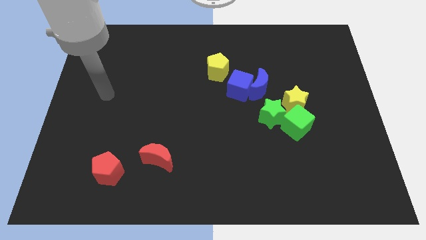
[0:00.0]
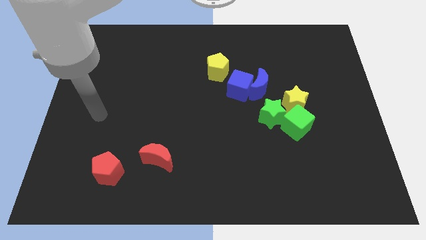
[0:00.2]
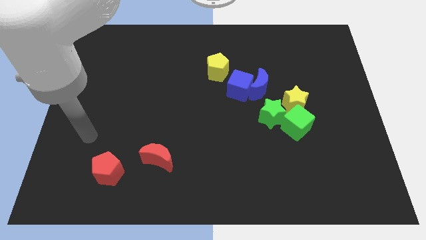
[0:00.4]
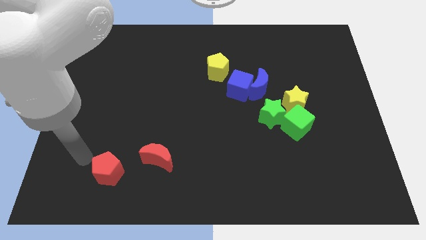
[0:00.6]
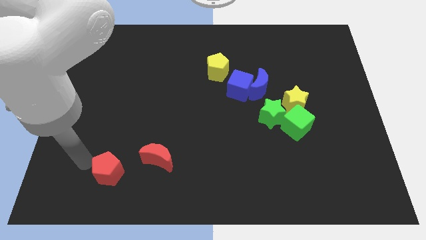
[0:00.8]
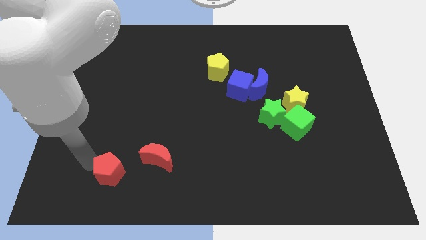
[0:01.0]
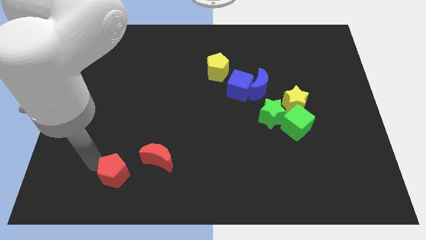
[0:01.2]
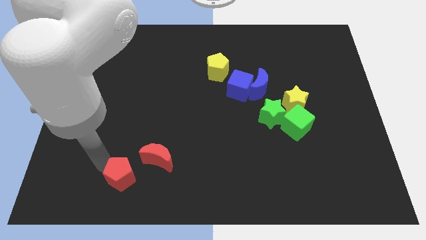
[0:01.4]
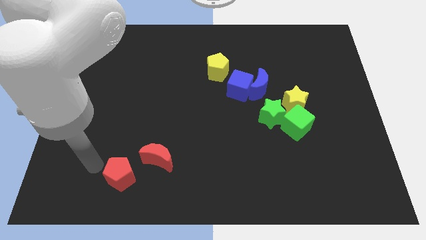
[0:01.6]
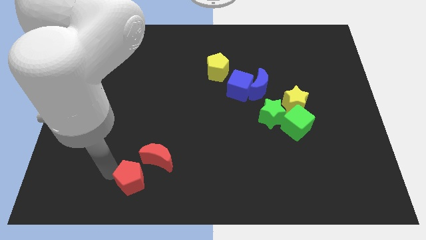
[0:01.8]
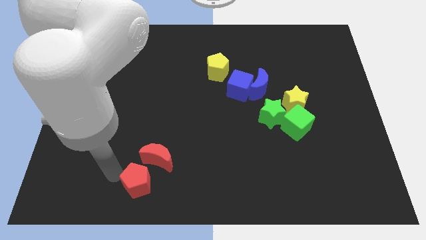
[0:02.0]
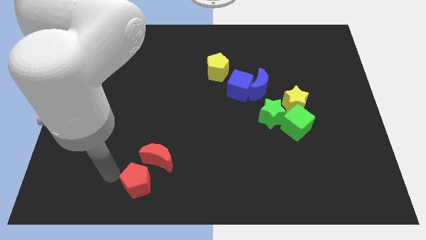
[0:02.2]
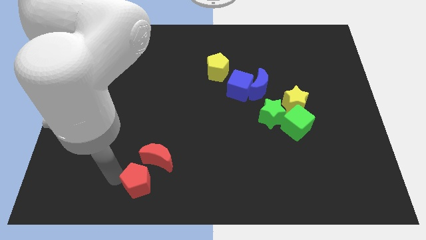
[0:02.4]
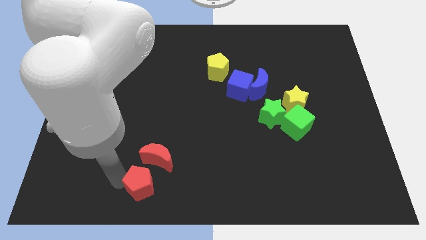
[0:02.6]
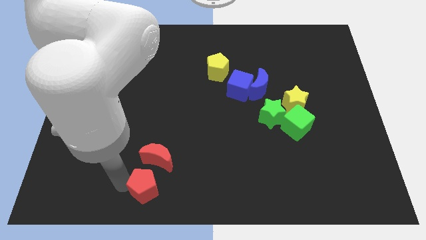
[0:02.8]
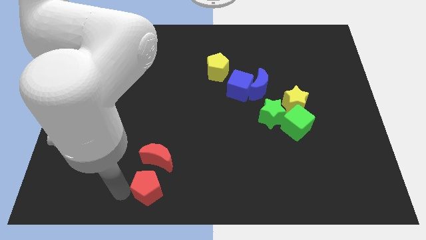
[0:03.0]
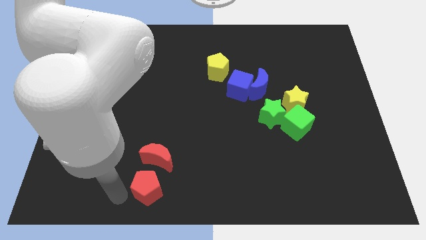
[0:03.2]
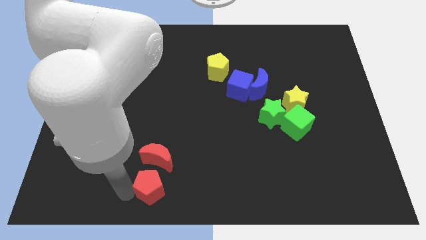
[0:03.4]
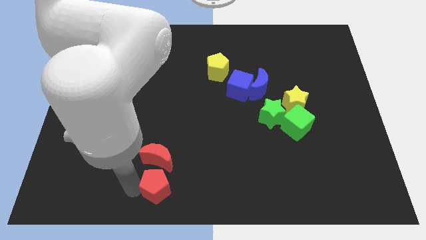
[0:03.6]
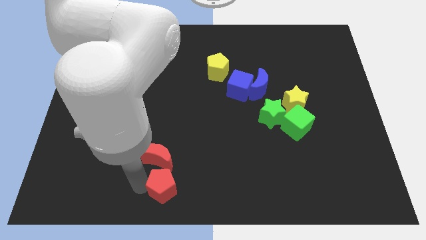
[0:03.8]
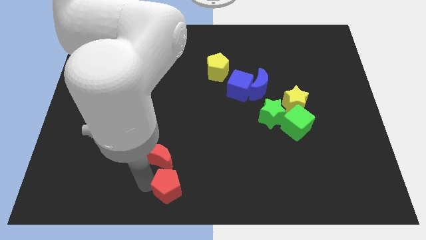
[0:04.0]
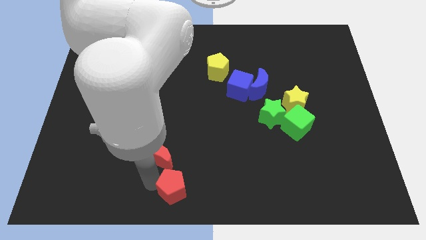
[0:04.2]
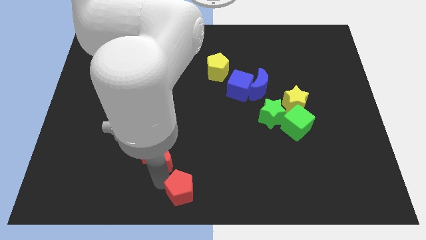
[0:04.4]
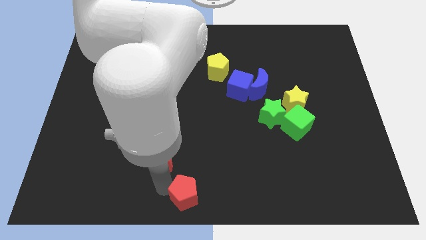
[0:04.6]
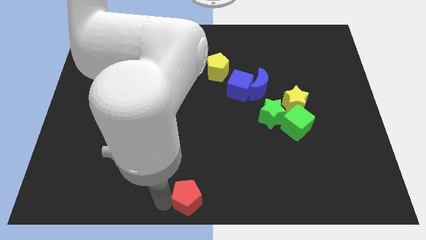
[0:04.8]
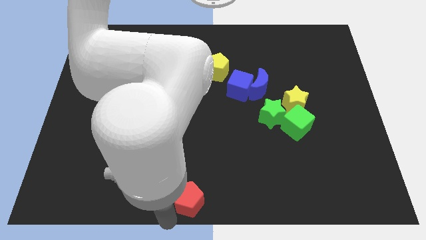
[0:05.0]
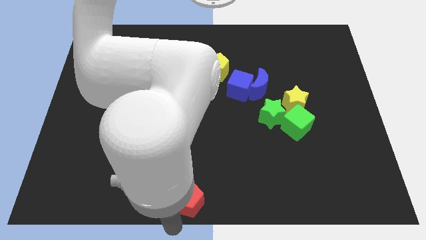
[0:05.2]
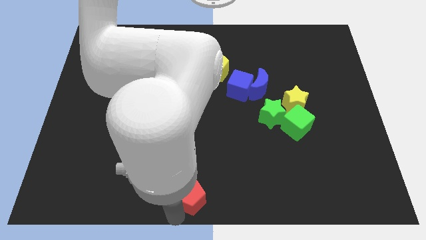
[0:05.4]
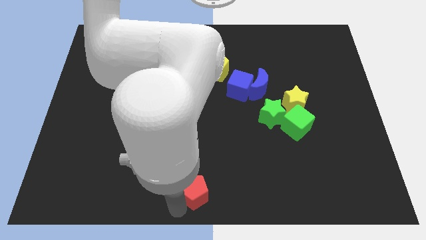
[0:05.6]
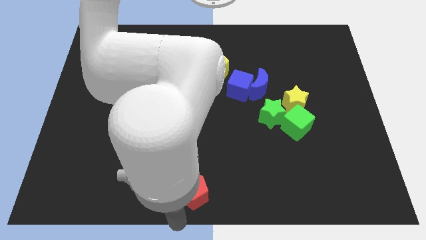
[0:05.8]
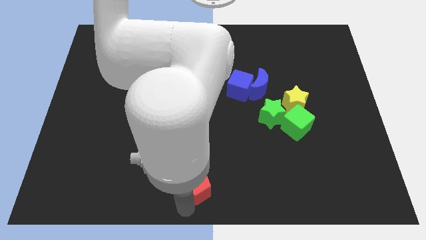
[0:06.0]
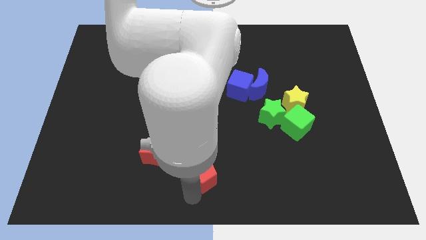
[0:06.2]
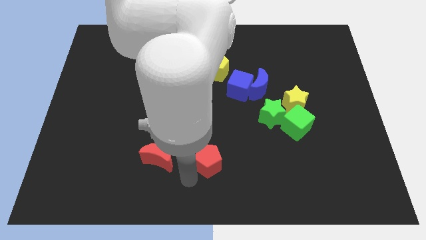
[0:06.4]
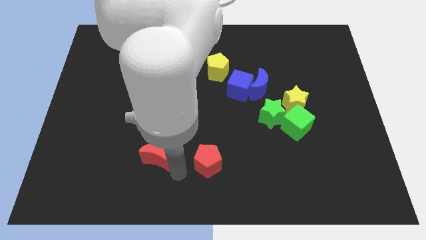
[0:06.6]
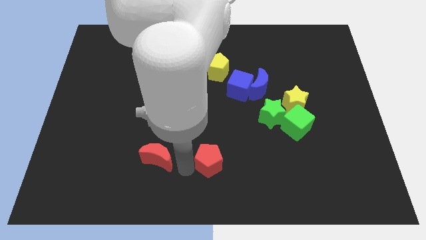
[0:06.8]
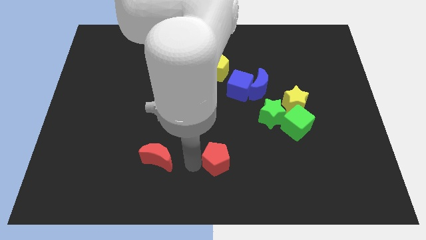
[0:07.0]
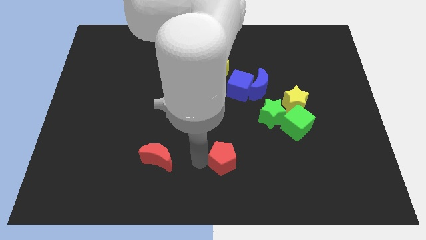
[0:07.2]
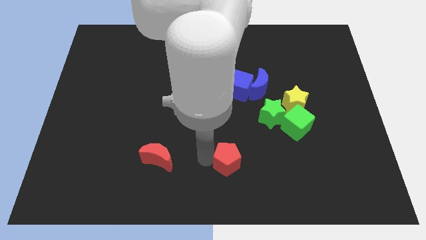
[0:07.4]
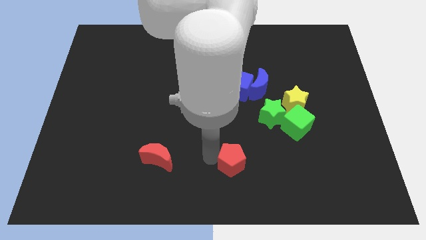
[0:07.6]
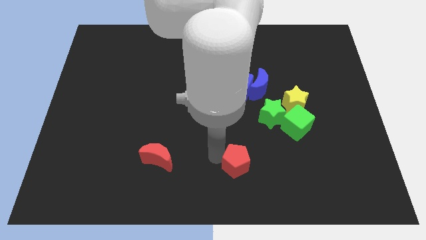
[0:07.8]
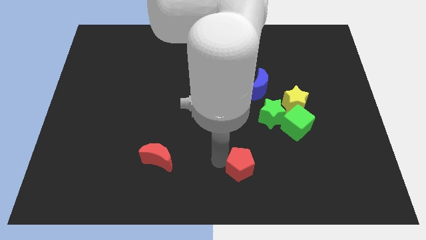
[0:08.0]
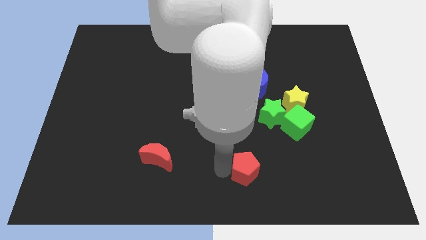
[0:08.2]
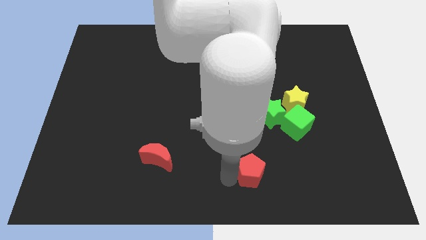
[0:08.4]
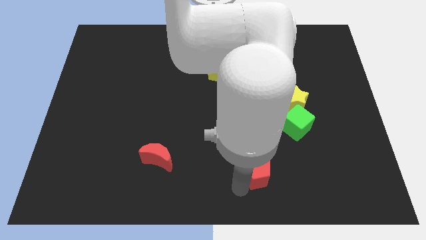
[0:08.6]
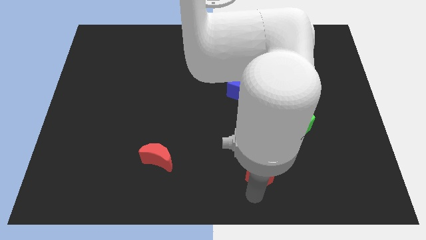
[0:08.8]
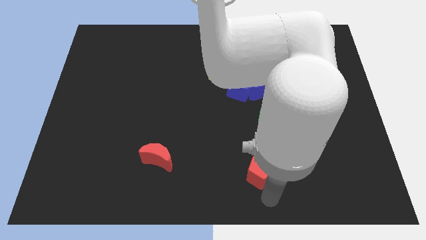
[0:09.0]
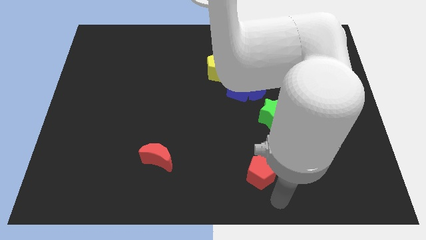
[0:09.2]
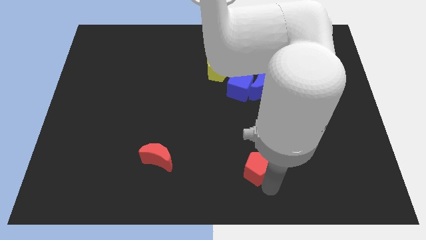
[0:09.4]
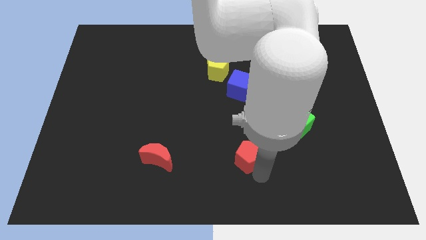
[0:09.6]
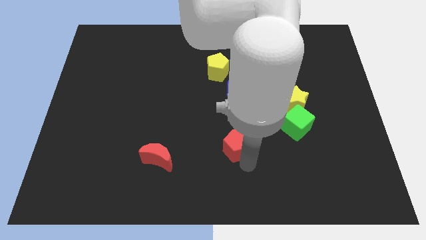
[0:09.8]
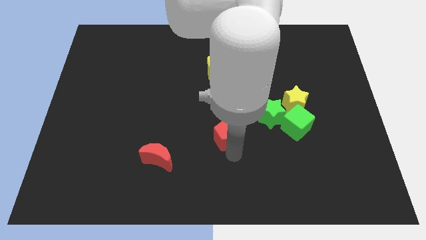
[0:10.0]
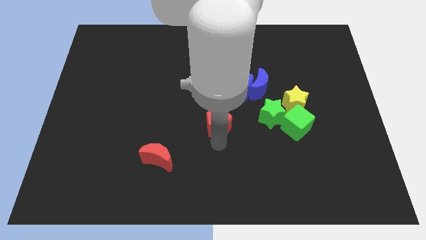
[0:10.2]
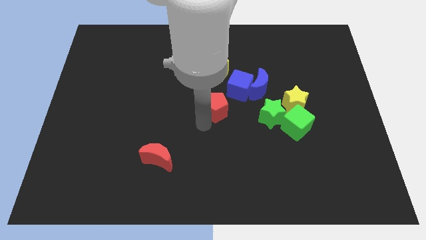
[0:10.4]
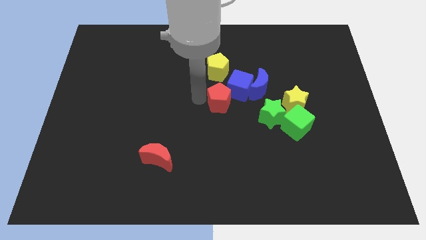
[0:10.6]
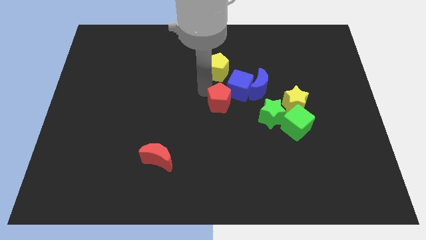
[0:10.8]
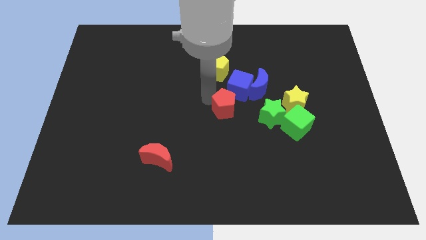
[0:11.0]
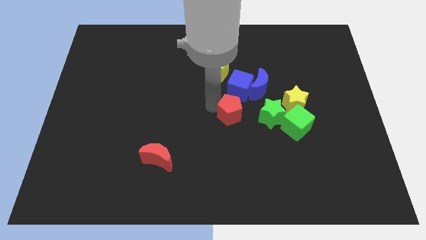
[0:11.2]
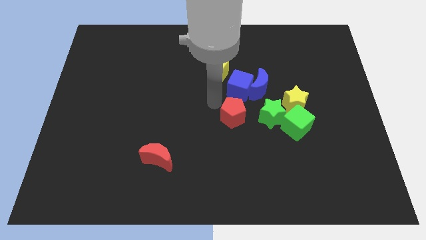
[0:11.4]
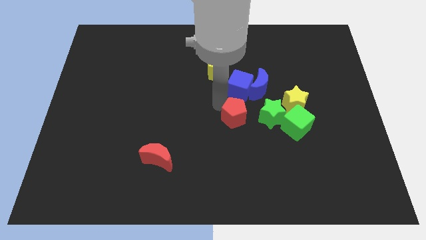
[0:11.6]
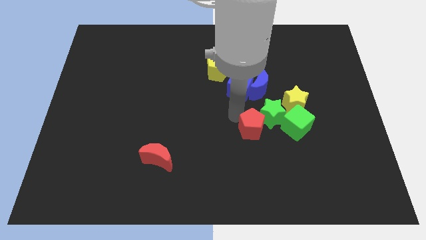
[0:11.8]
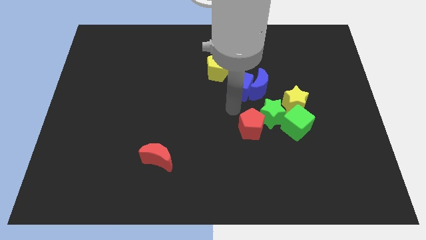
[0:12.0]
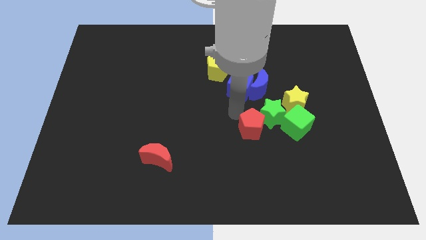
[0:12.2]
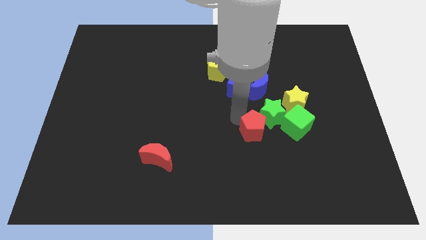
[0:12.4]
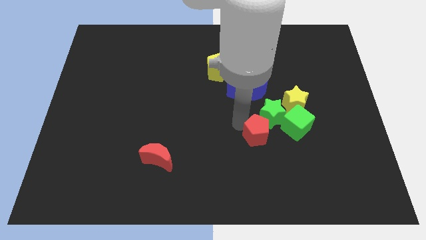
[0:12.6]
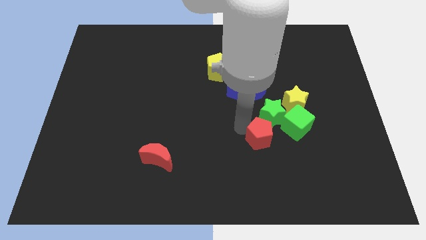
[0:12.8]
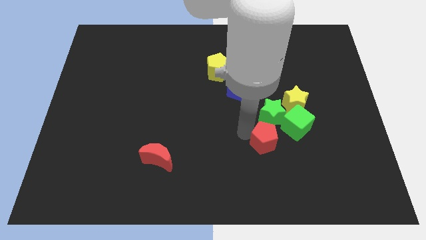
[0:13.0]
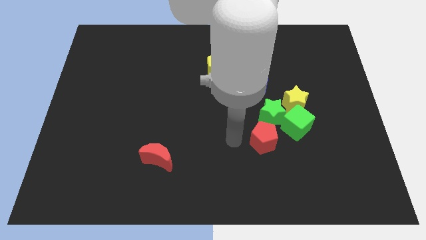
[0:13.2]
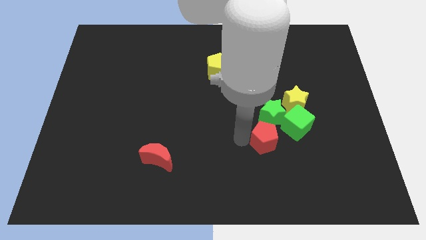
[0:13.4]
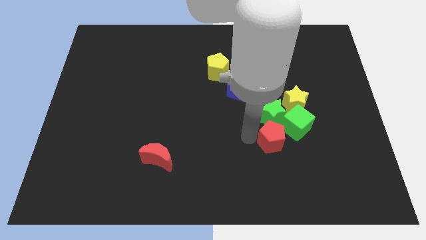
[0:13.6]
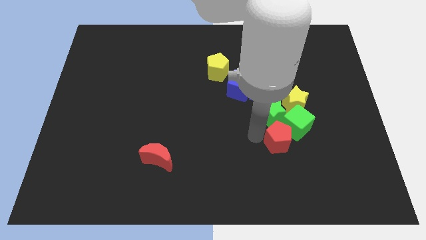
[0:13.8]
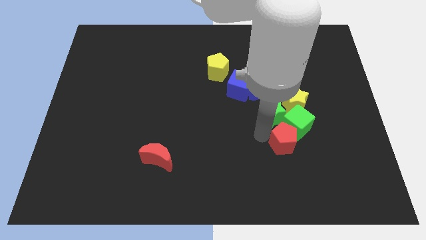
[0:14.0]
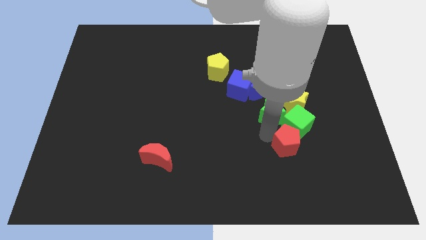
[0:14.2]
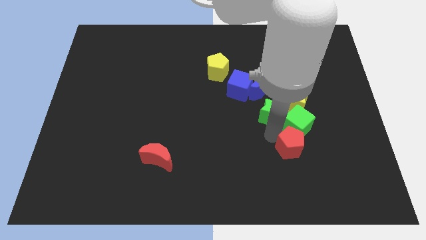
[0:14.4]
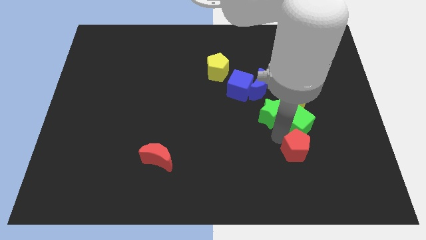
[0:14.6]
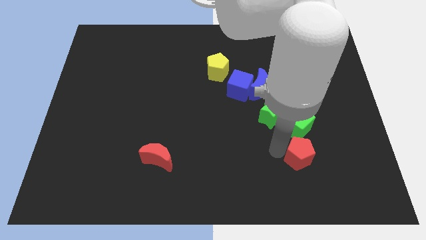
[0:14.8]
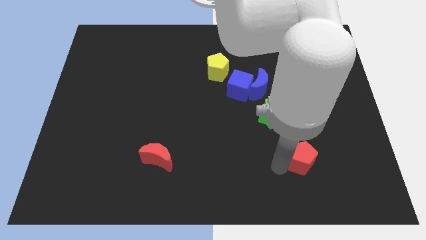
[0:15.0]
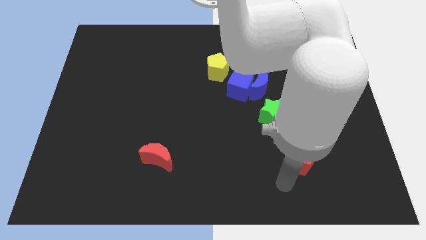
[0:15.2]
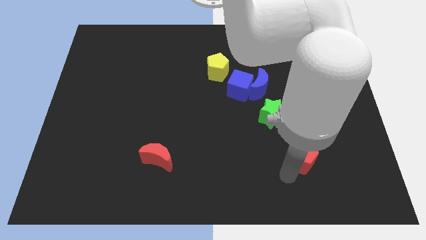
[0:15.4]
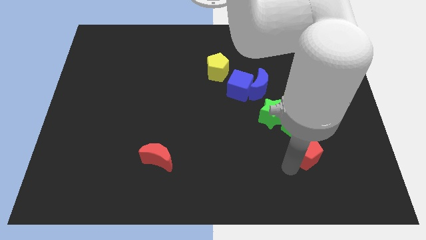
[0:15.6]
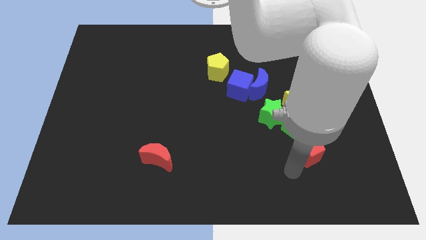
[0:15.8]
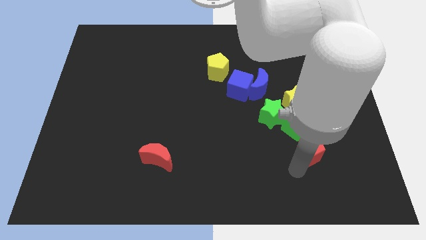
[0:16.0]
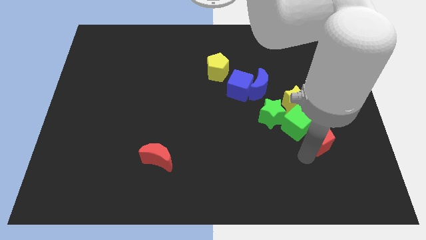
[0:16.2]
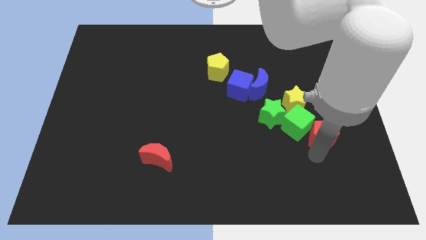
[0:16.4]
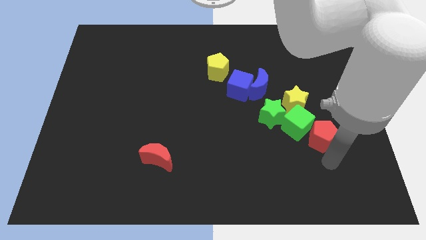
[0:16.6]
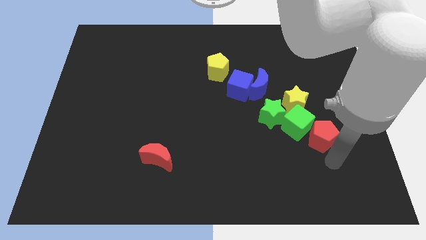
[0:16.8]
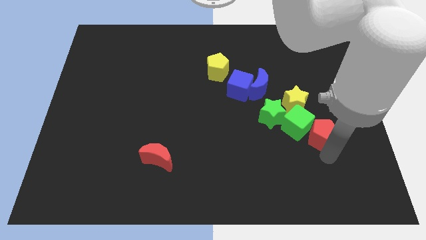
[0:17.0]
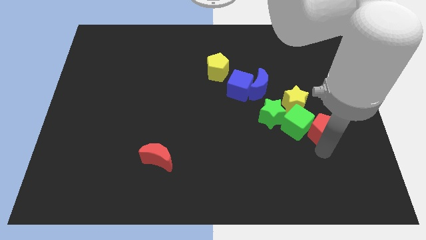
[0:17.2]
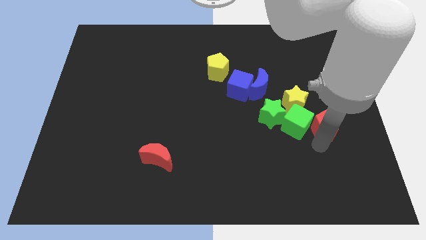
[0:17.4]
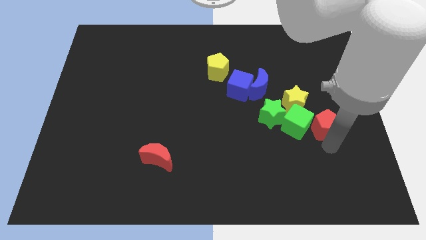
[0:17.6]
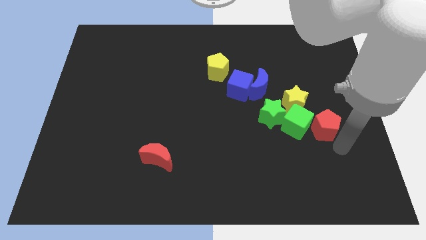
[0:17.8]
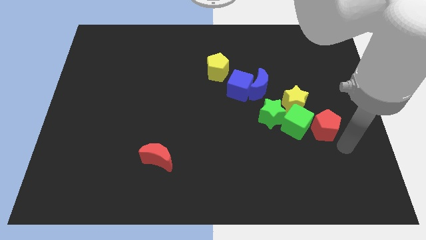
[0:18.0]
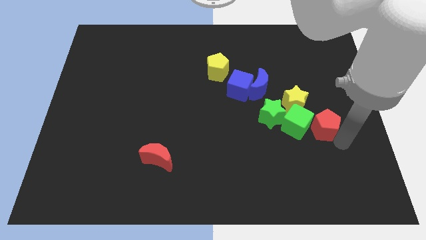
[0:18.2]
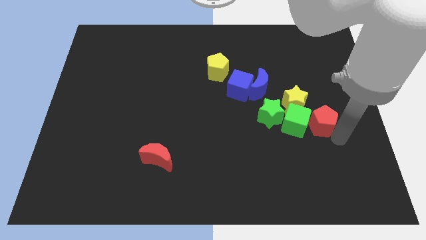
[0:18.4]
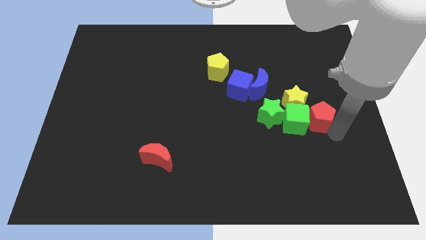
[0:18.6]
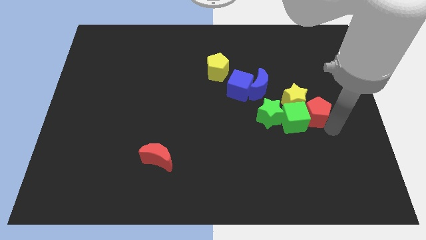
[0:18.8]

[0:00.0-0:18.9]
slide the red pentagon close to the yellow star
